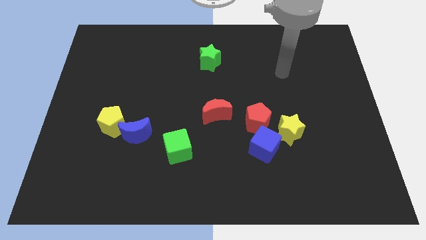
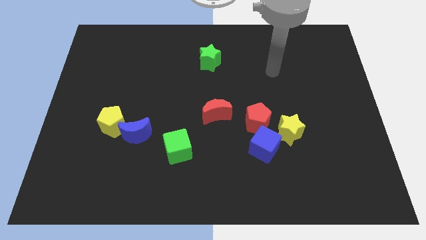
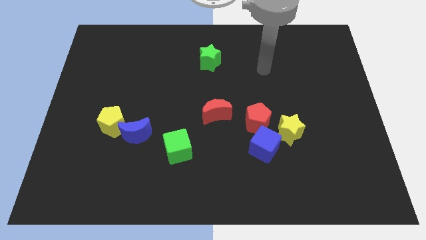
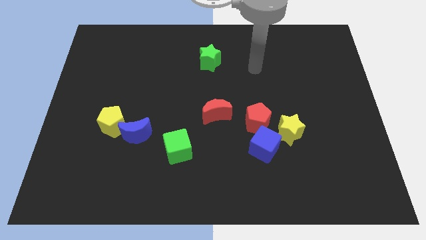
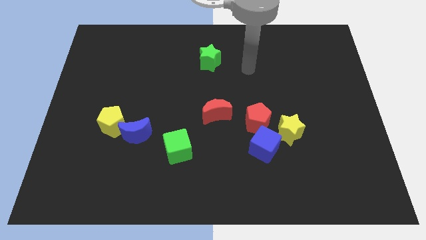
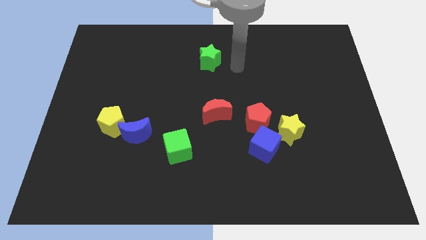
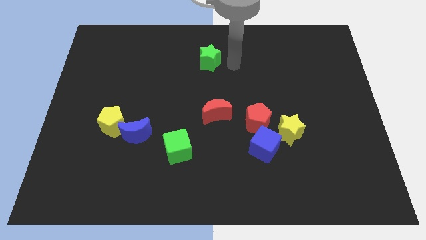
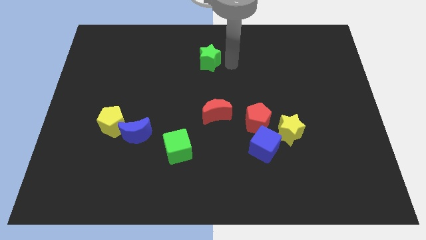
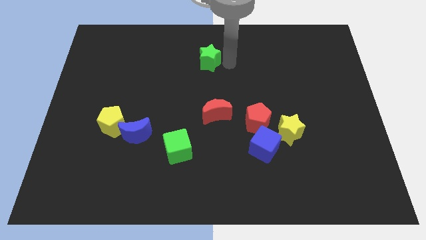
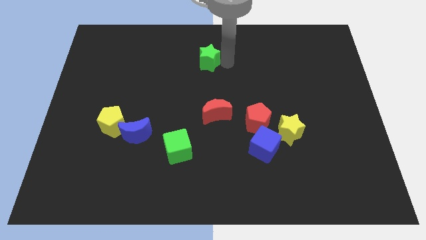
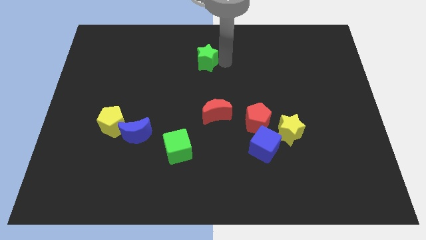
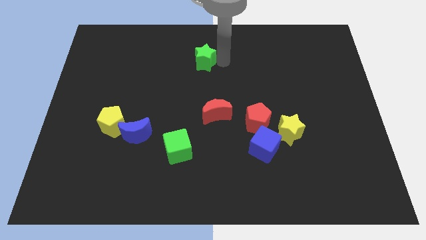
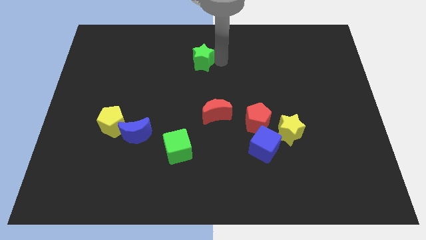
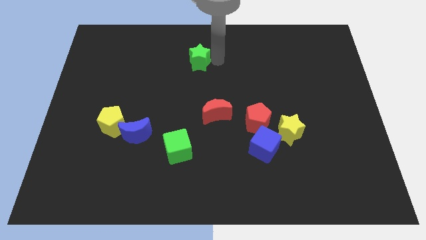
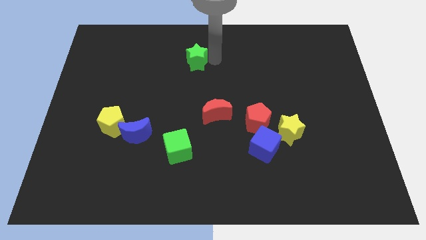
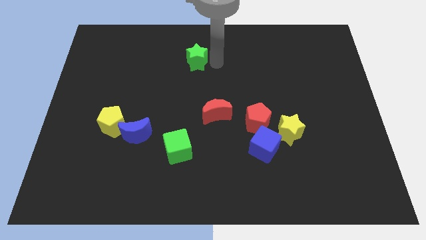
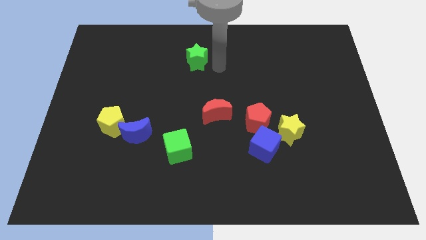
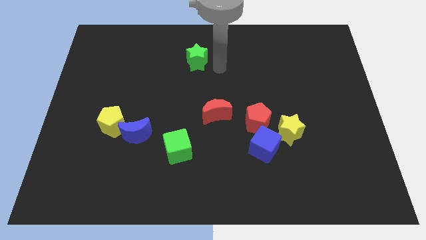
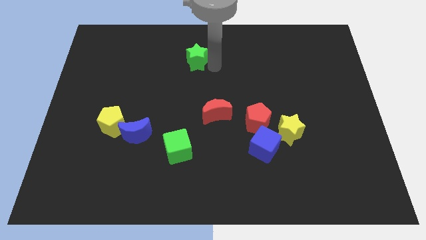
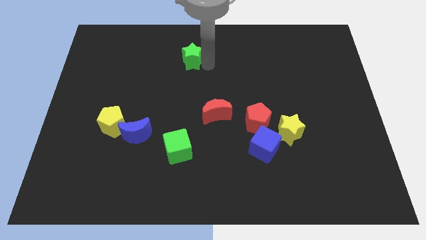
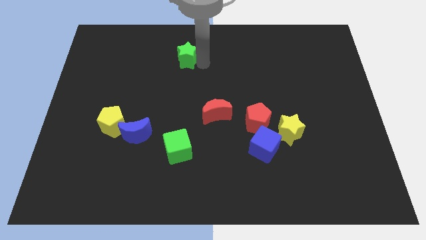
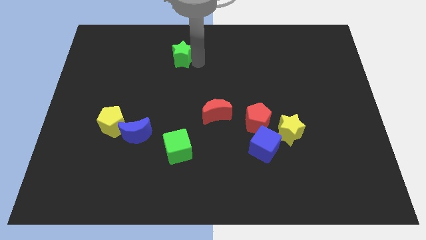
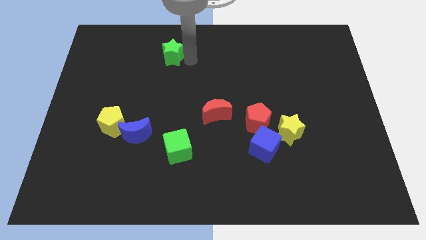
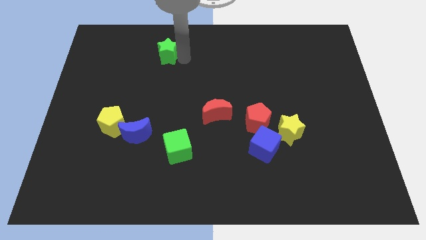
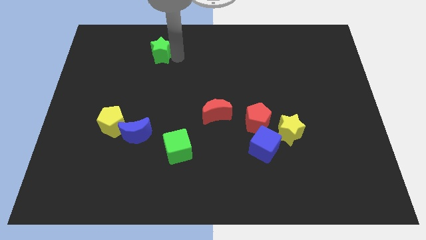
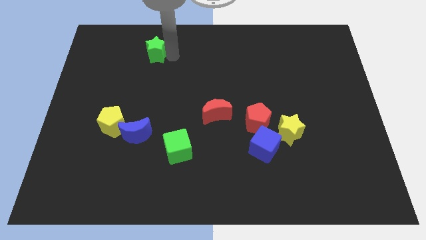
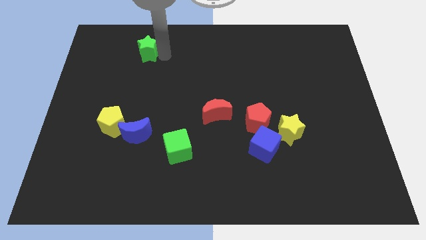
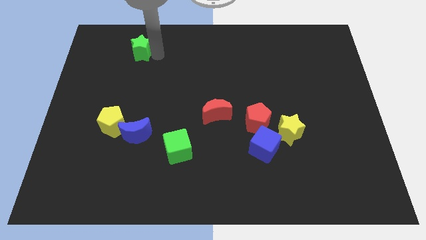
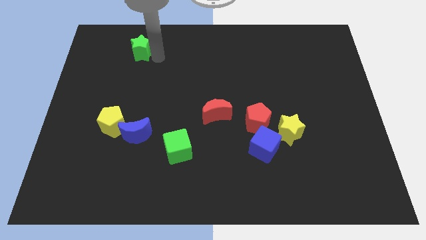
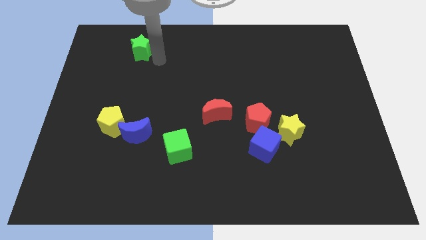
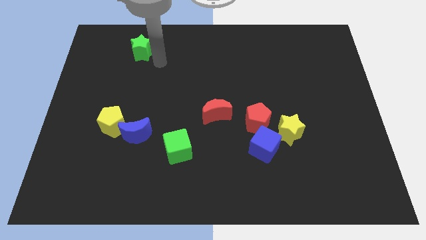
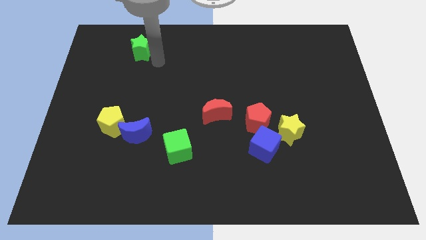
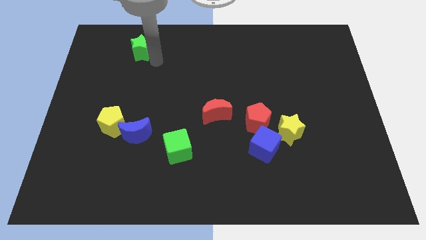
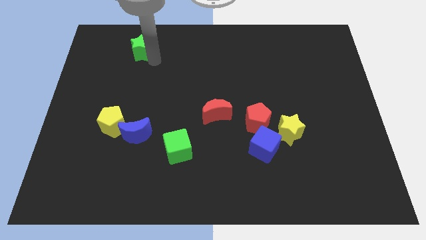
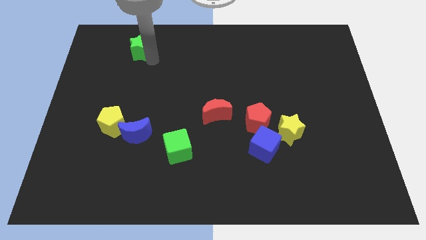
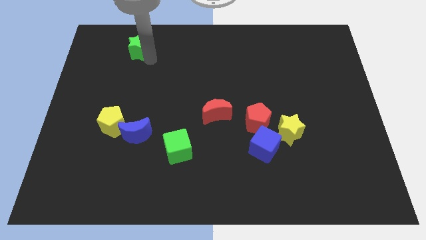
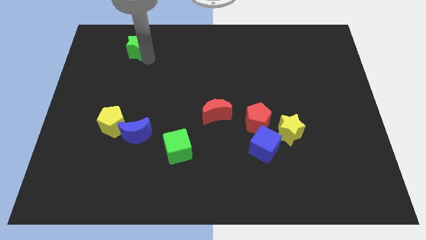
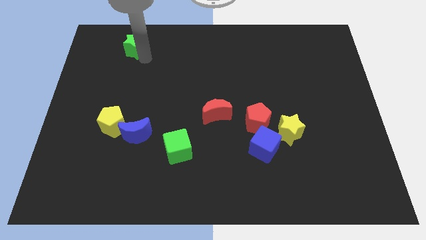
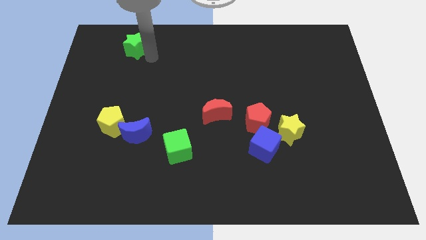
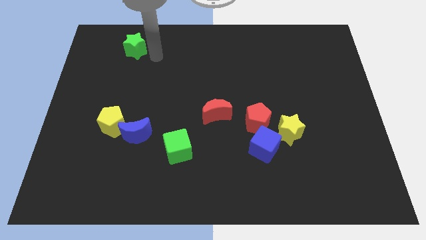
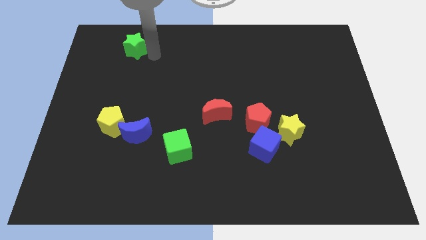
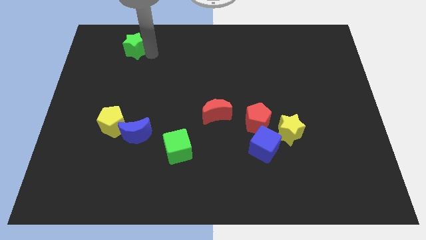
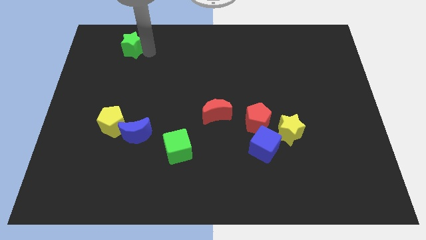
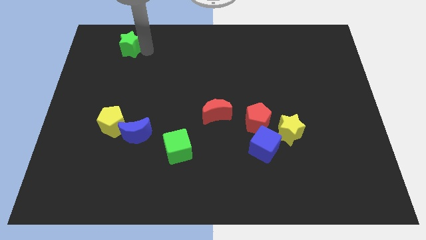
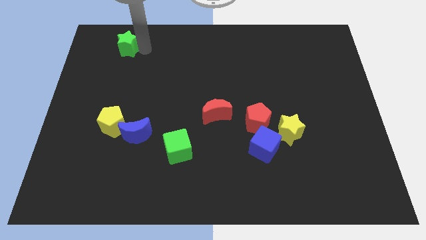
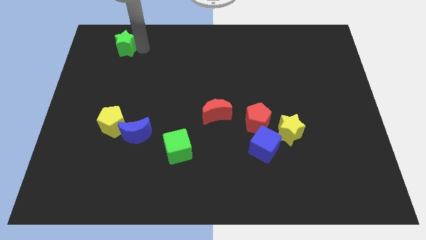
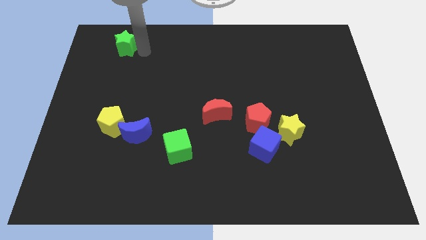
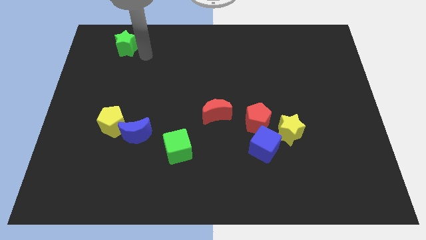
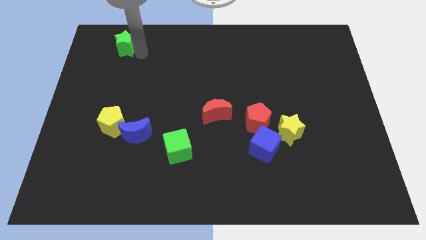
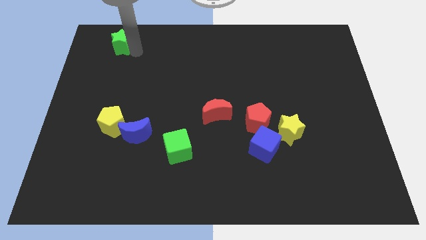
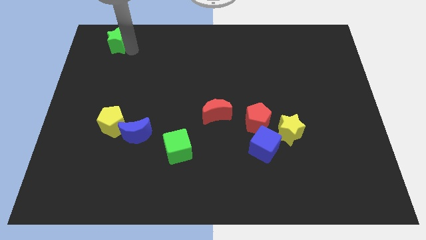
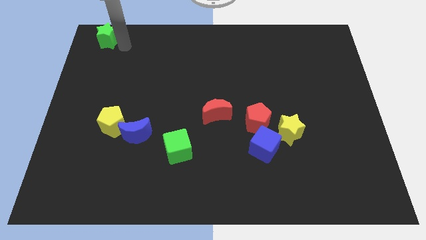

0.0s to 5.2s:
put the green star to the top left

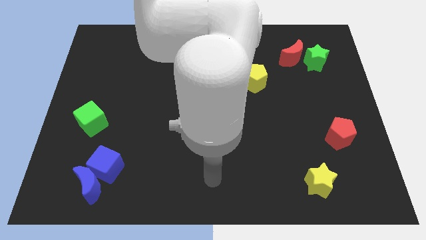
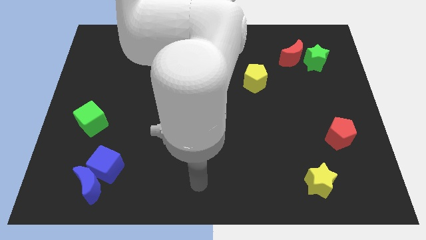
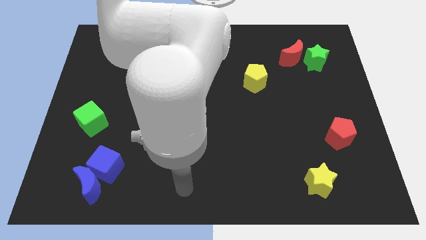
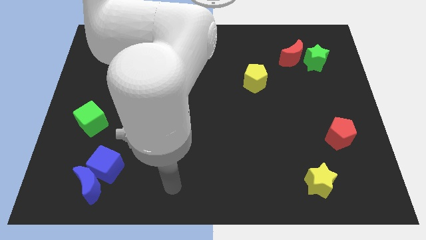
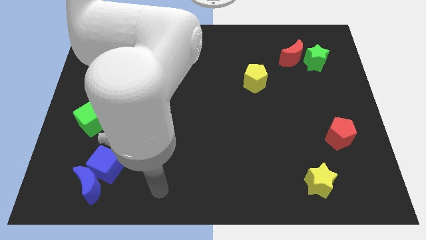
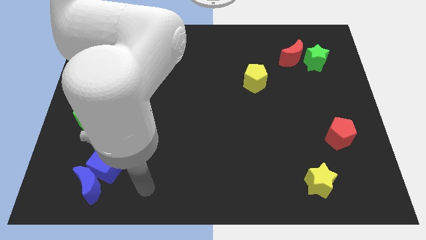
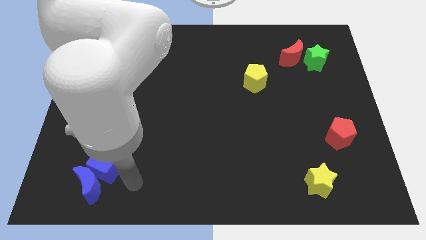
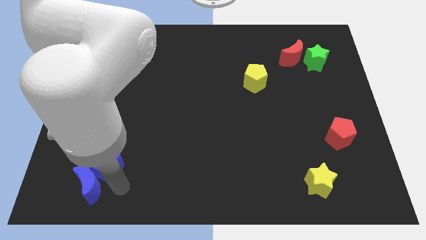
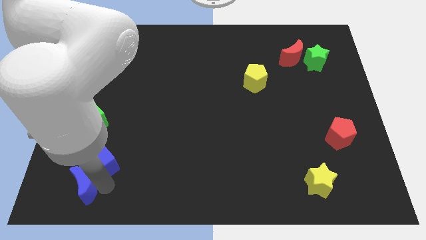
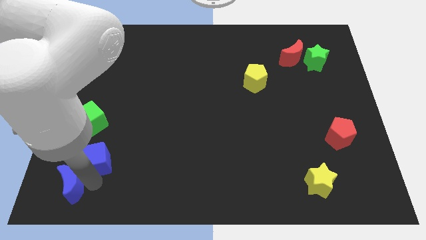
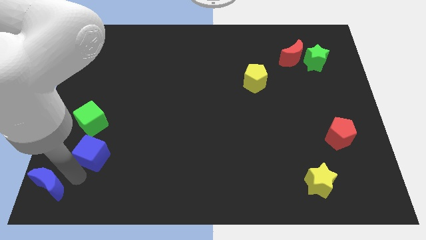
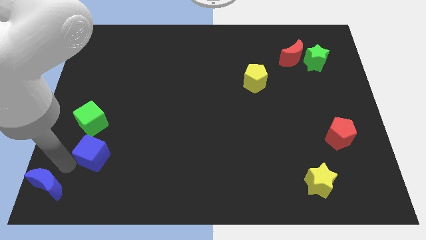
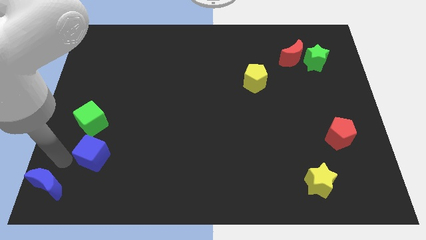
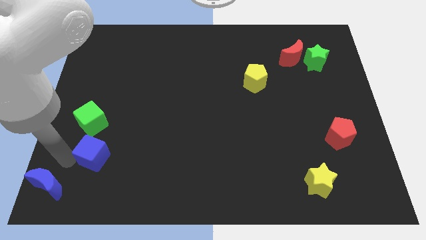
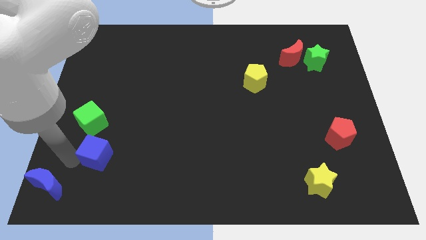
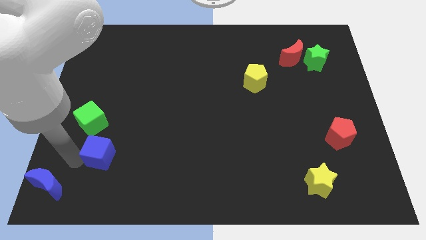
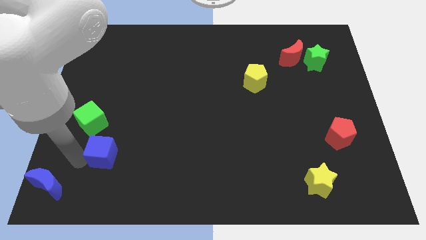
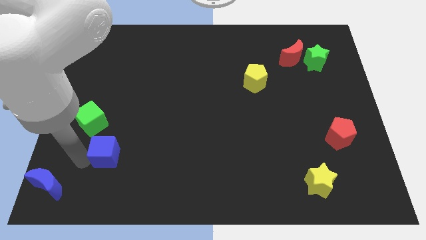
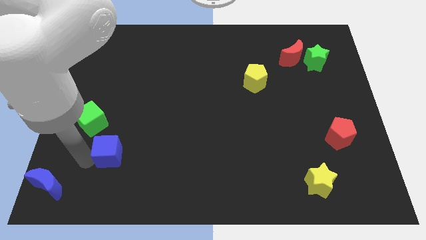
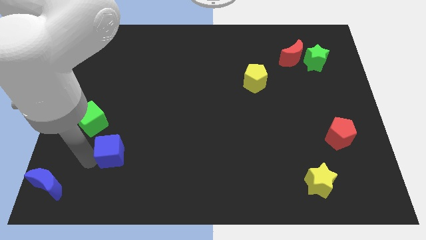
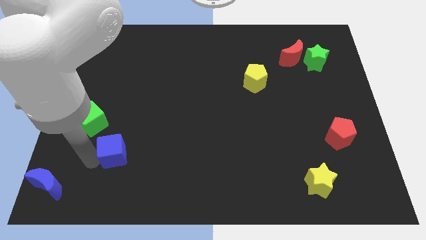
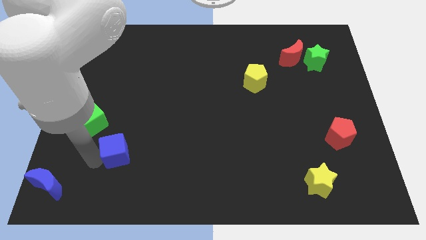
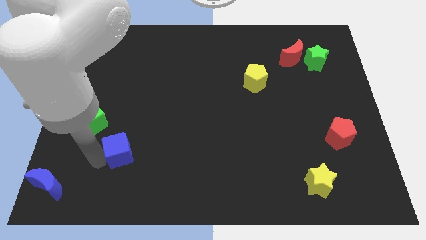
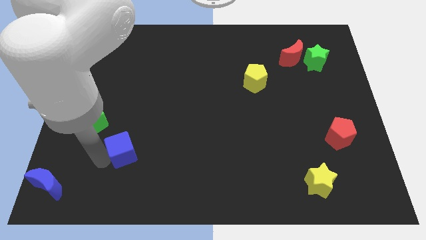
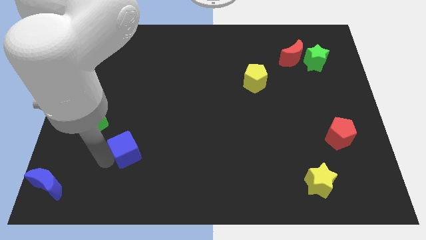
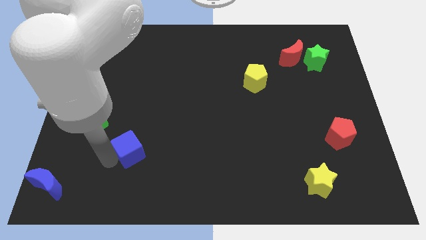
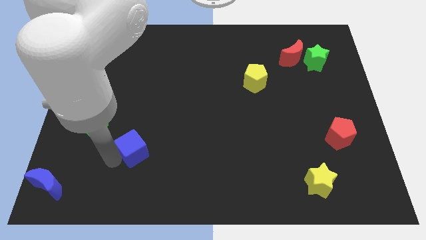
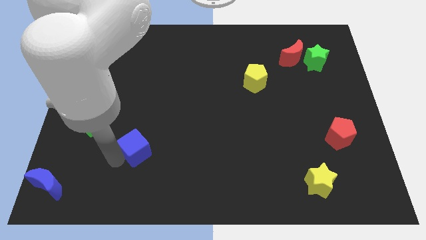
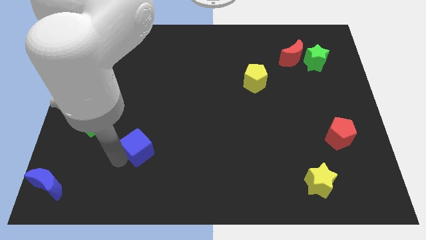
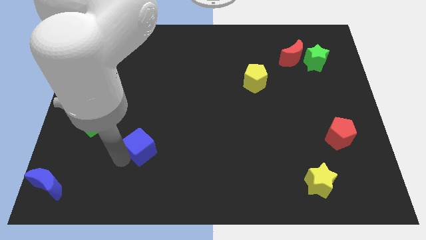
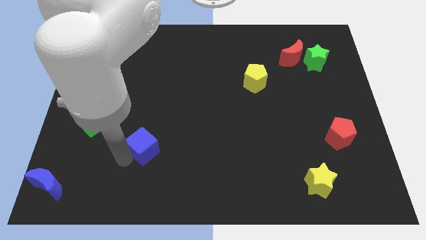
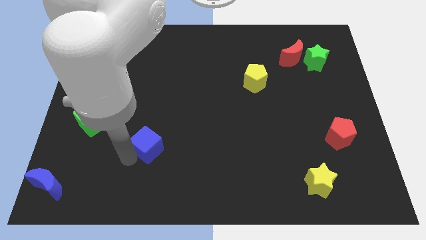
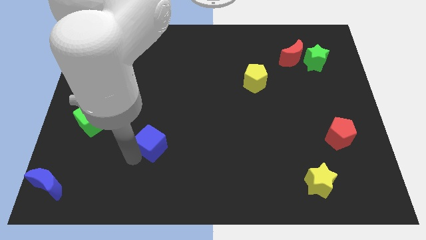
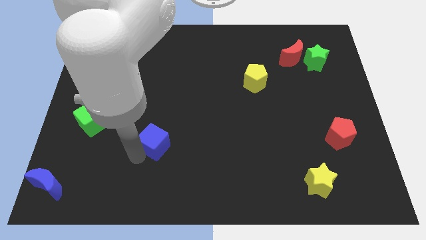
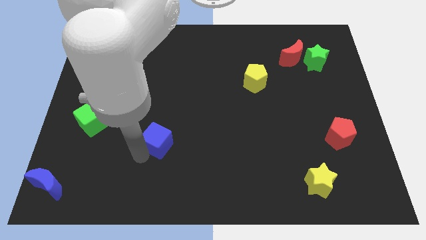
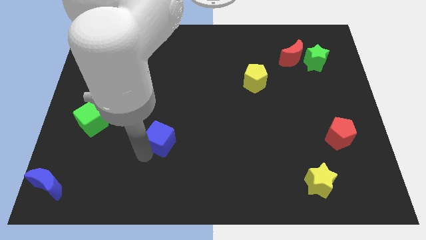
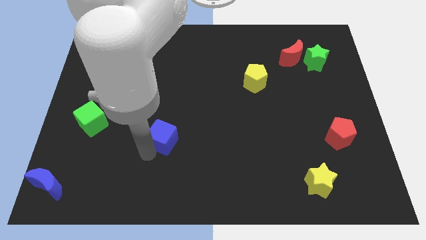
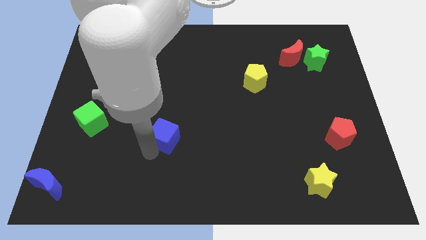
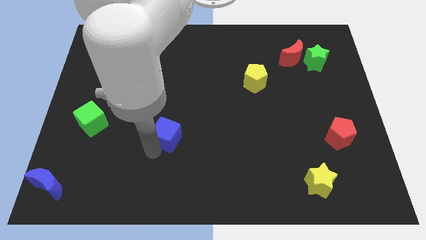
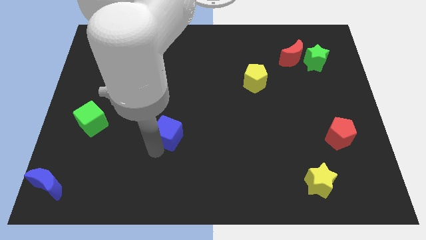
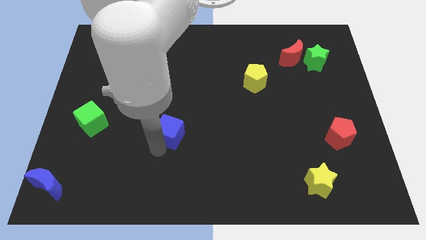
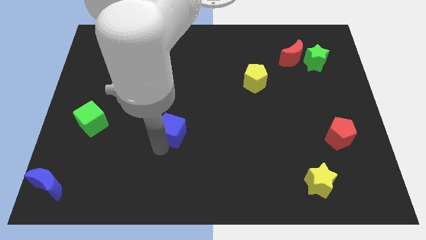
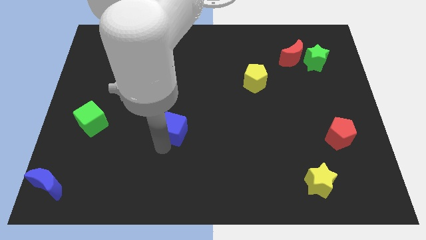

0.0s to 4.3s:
put the blue cube to the middle of the board
